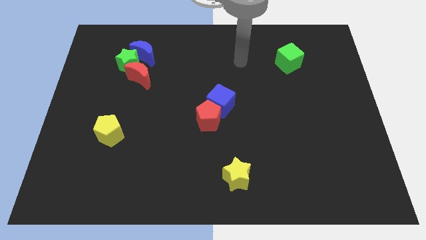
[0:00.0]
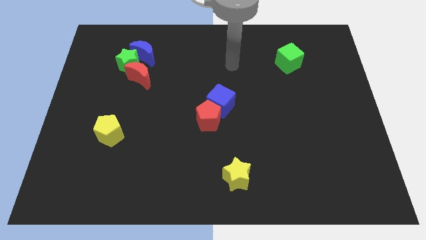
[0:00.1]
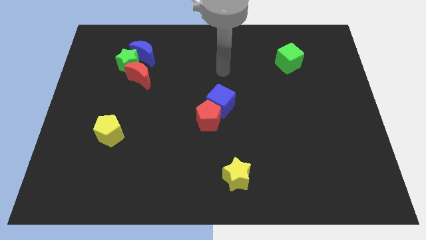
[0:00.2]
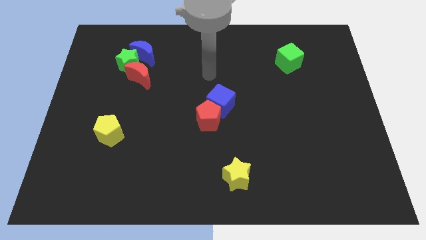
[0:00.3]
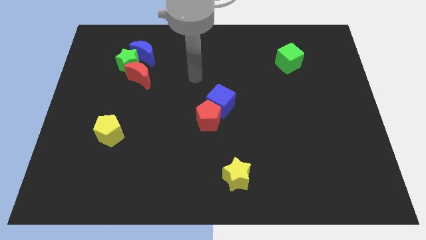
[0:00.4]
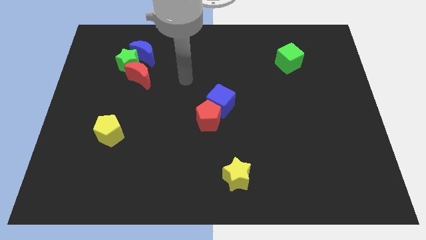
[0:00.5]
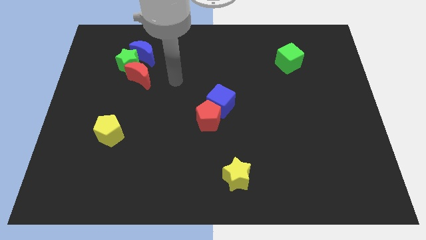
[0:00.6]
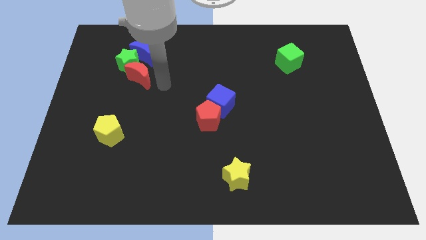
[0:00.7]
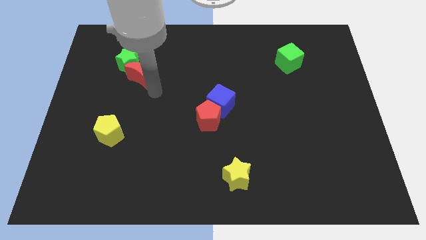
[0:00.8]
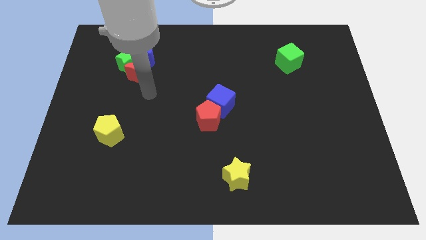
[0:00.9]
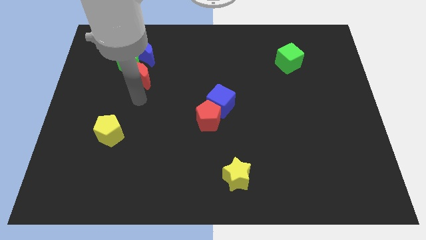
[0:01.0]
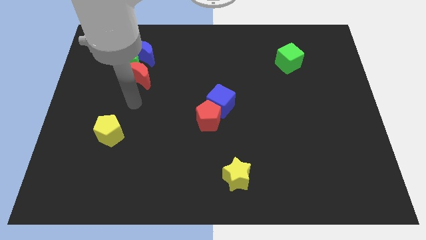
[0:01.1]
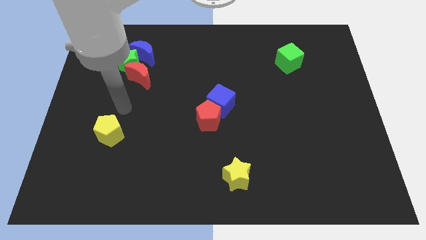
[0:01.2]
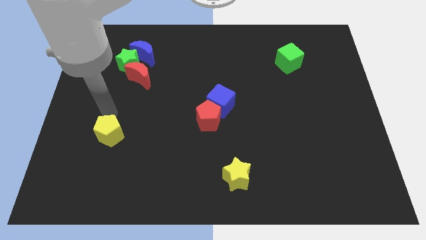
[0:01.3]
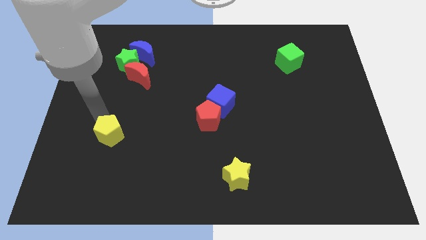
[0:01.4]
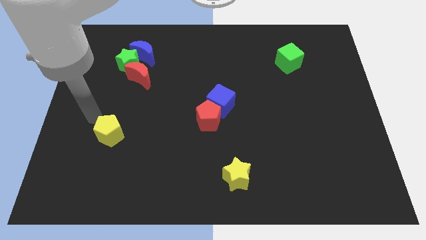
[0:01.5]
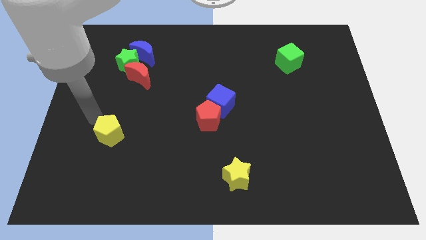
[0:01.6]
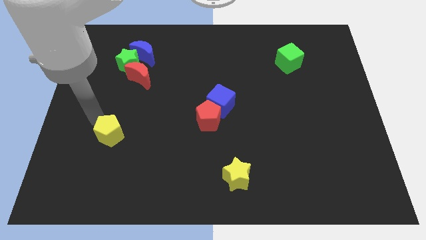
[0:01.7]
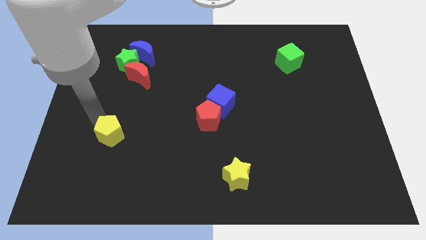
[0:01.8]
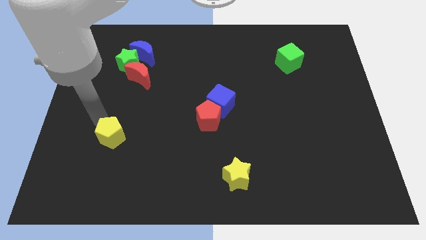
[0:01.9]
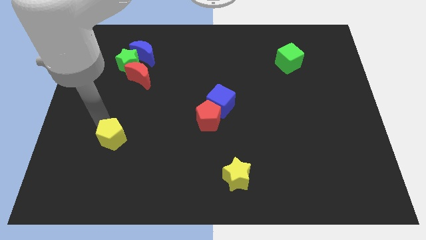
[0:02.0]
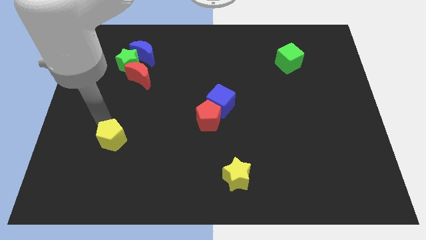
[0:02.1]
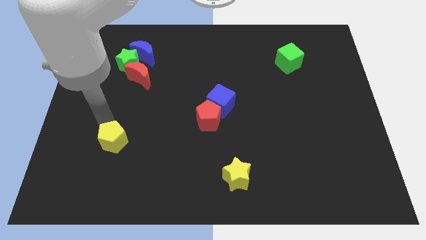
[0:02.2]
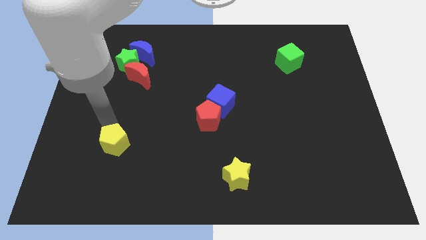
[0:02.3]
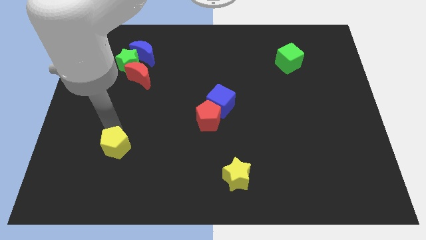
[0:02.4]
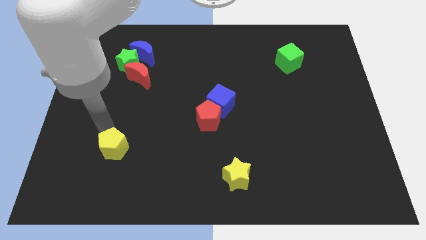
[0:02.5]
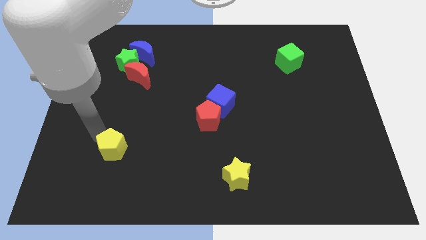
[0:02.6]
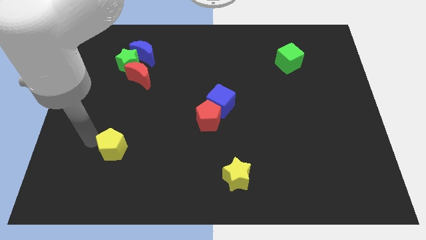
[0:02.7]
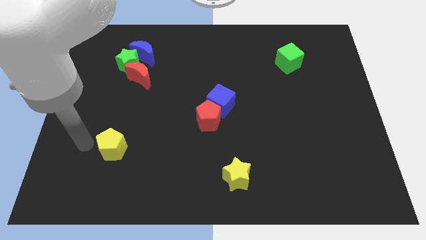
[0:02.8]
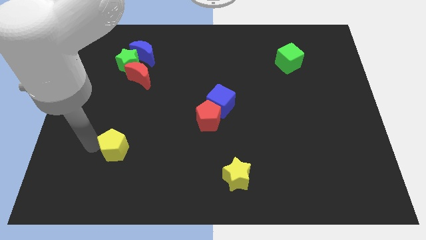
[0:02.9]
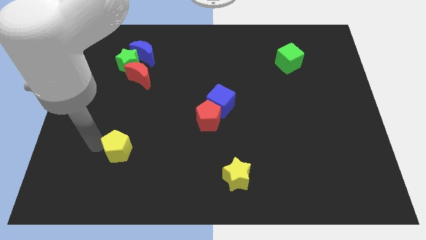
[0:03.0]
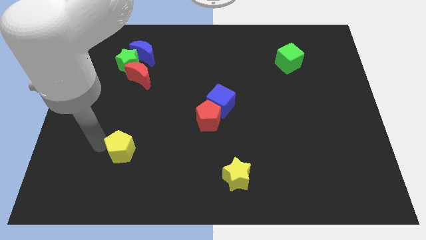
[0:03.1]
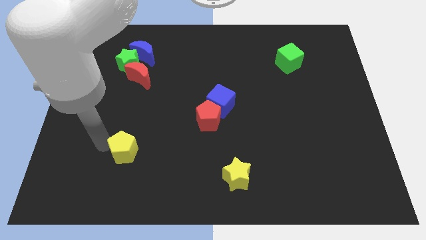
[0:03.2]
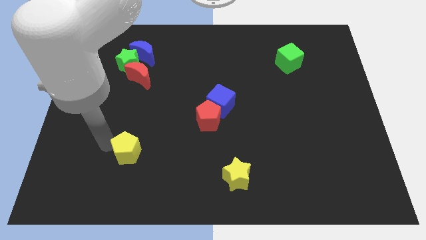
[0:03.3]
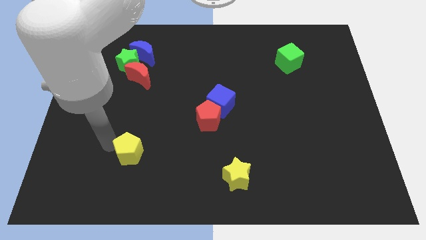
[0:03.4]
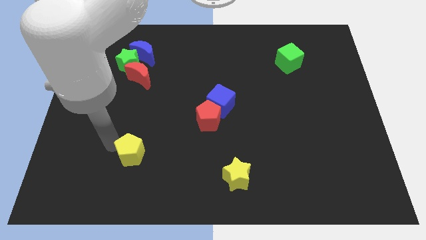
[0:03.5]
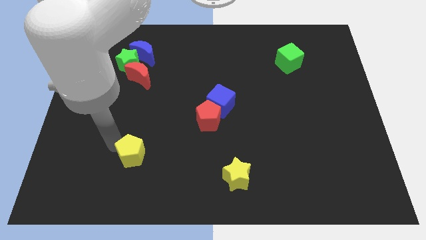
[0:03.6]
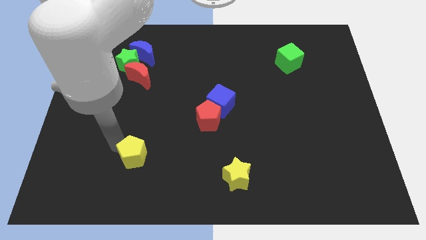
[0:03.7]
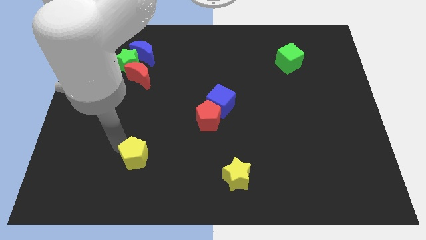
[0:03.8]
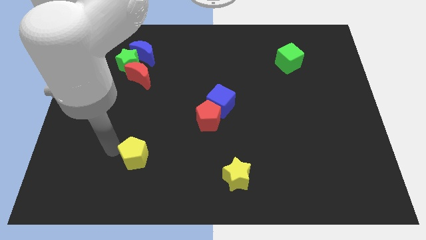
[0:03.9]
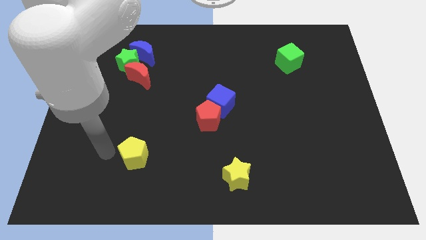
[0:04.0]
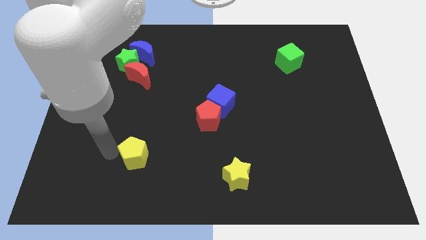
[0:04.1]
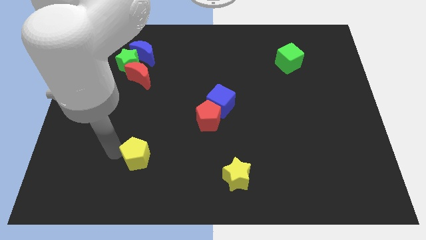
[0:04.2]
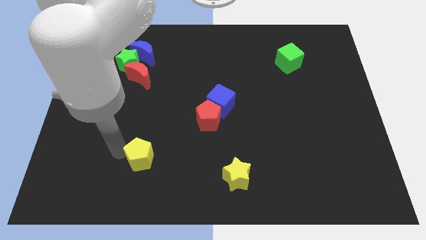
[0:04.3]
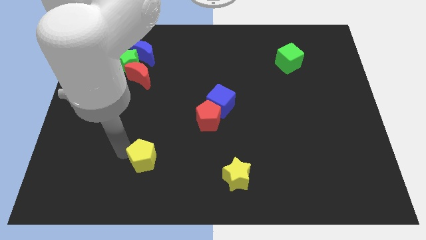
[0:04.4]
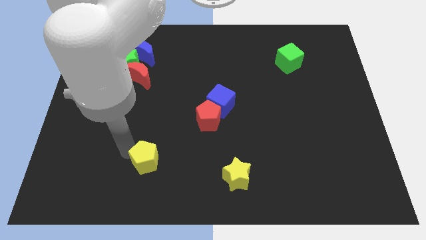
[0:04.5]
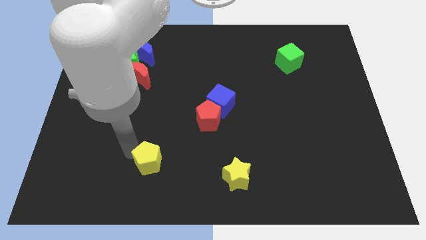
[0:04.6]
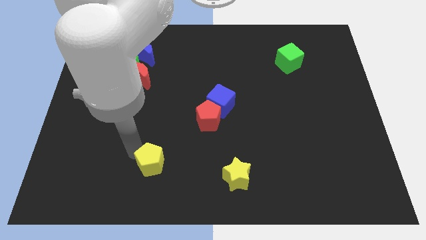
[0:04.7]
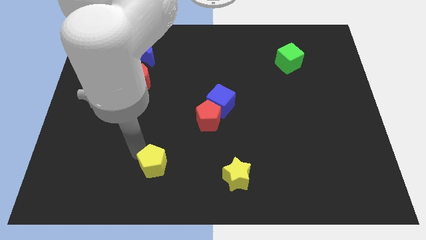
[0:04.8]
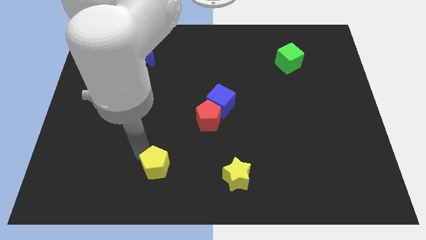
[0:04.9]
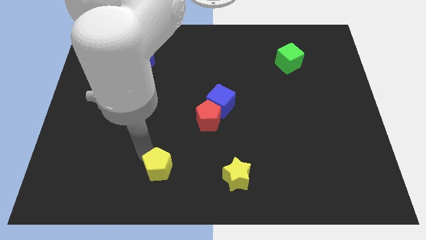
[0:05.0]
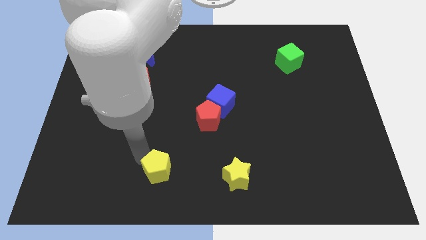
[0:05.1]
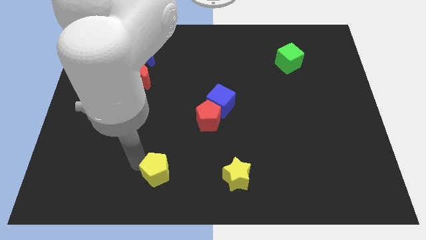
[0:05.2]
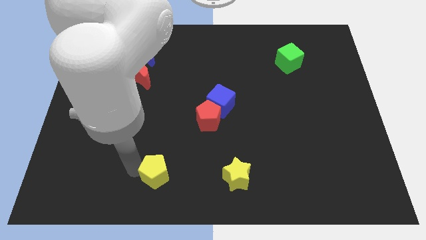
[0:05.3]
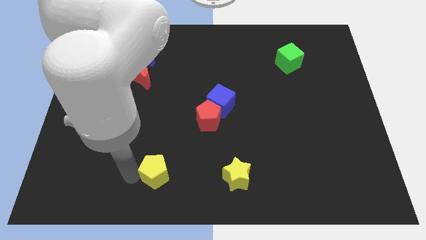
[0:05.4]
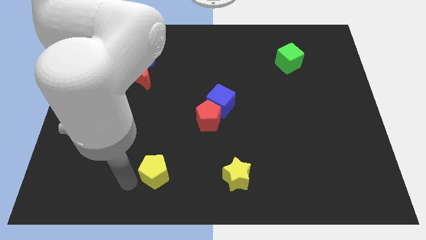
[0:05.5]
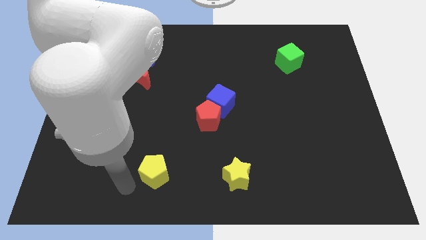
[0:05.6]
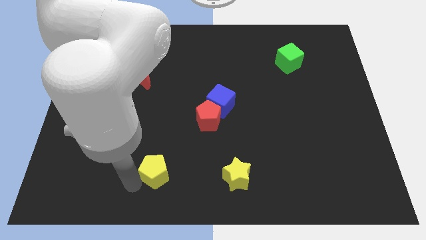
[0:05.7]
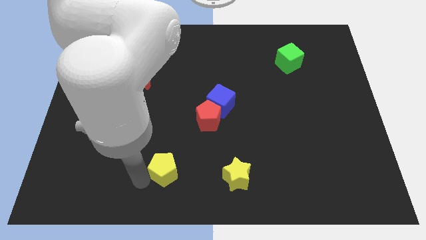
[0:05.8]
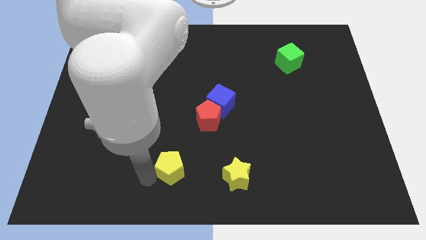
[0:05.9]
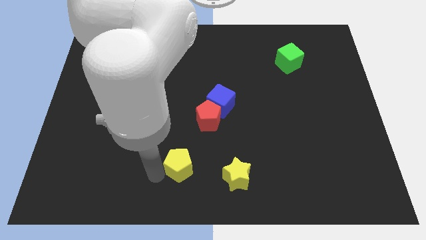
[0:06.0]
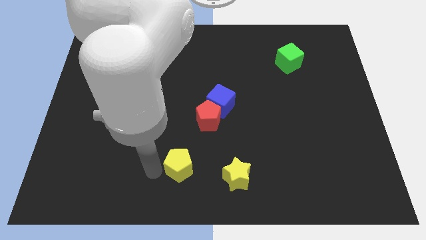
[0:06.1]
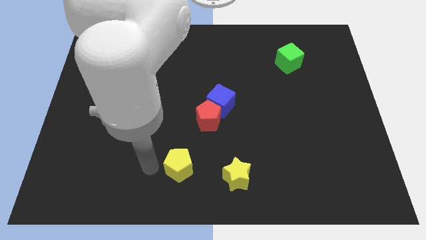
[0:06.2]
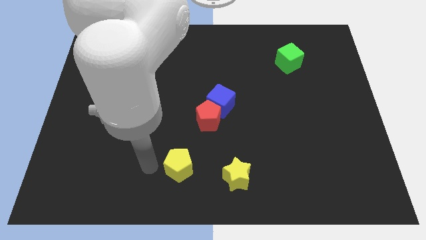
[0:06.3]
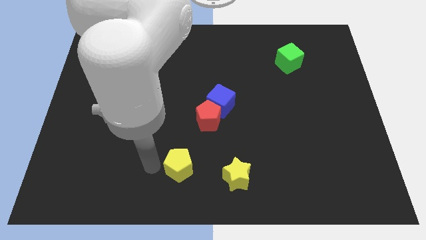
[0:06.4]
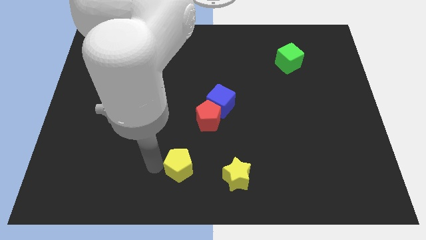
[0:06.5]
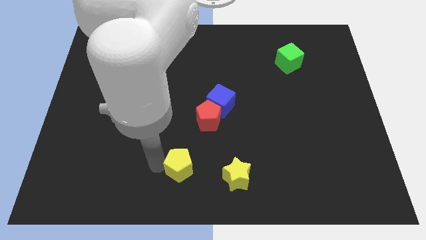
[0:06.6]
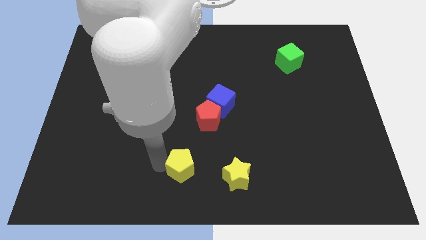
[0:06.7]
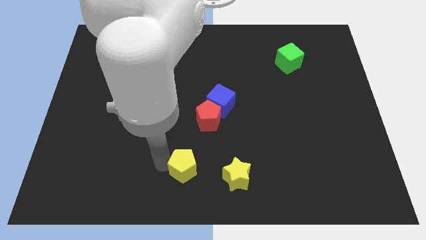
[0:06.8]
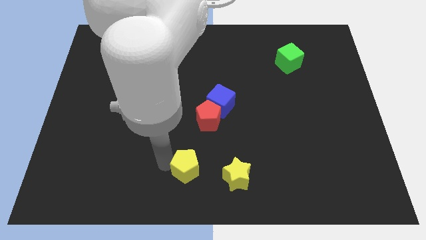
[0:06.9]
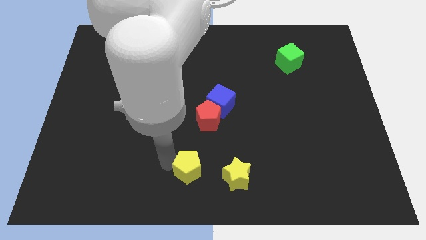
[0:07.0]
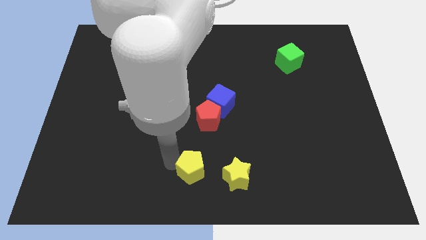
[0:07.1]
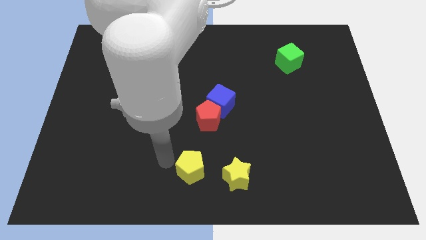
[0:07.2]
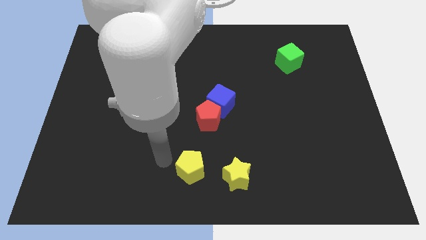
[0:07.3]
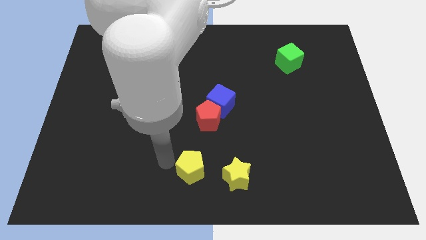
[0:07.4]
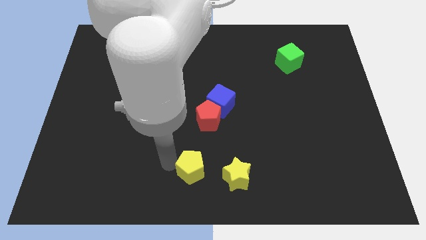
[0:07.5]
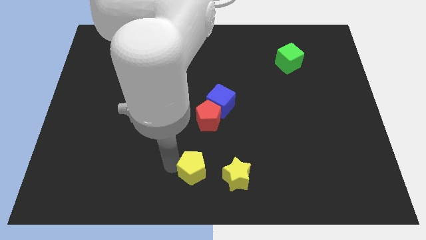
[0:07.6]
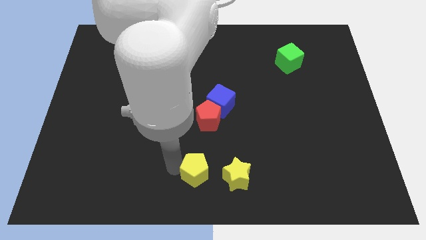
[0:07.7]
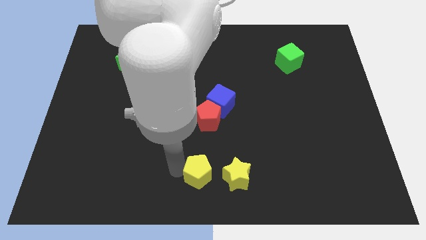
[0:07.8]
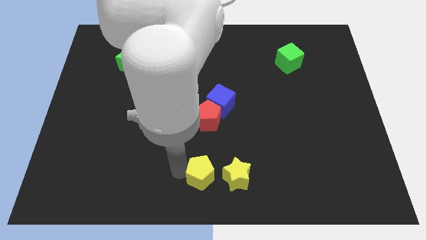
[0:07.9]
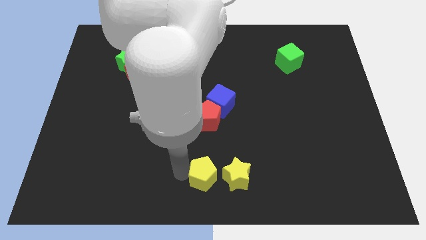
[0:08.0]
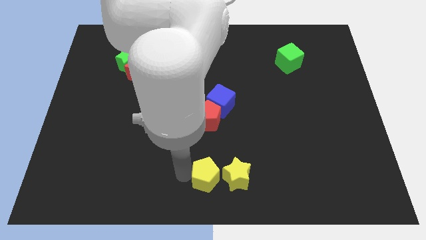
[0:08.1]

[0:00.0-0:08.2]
put the yellow pentagon to the yellow star
